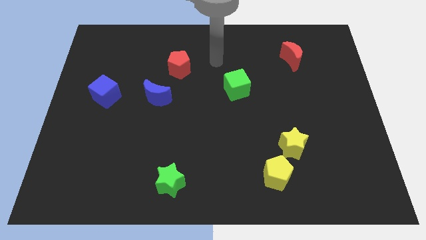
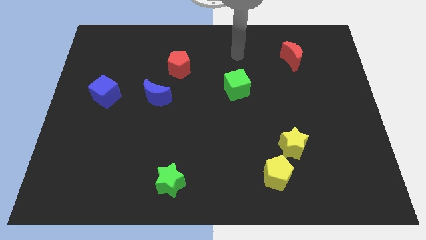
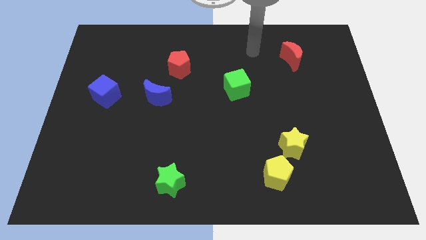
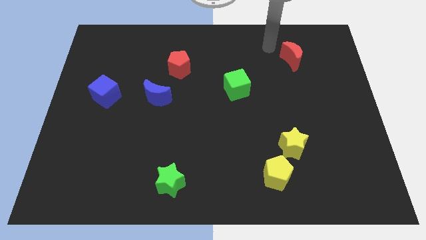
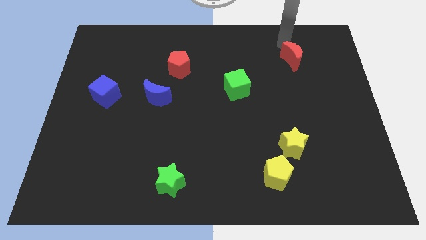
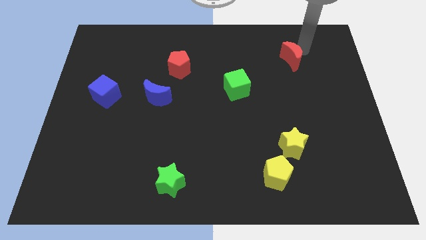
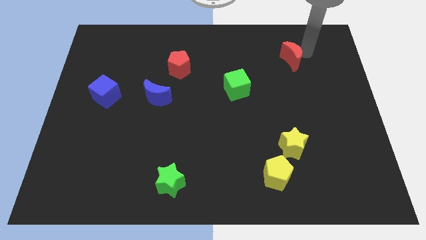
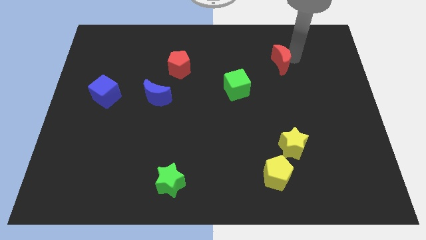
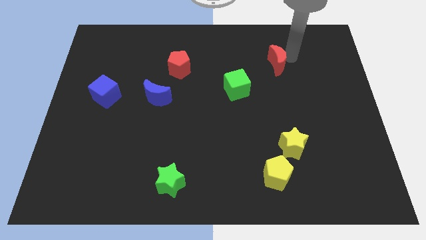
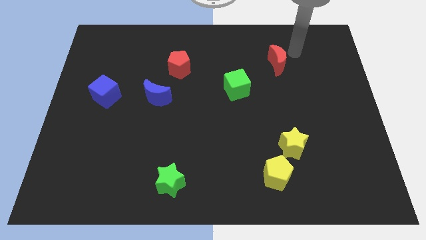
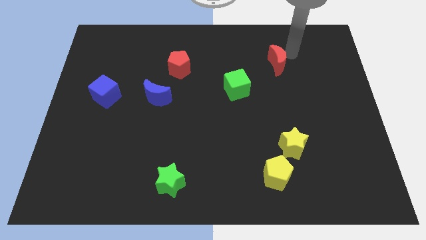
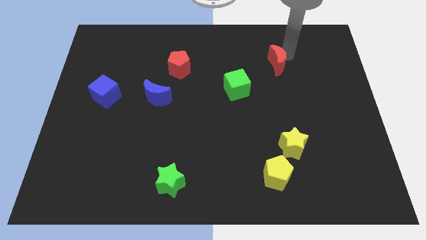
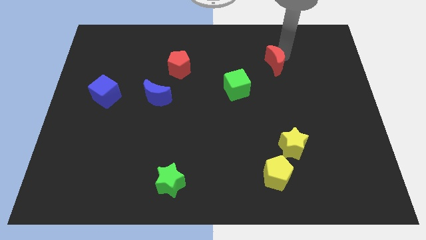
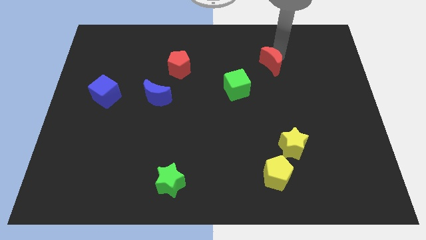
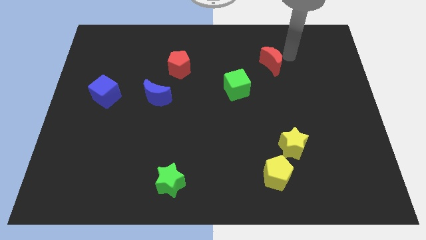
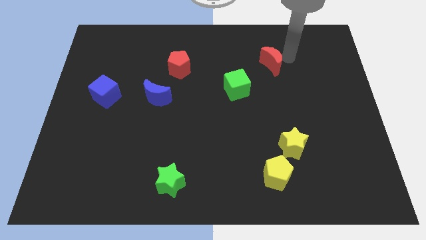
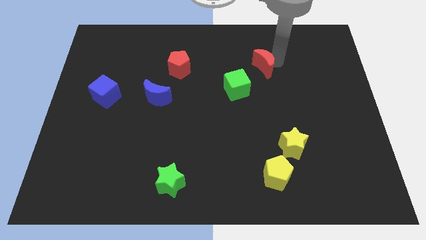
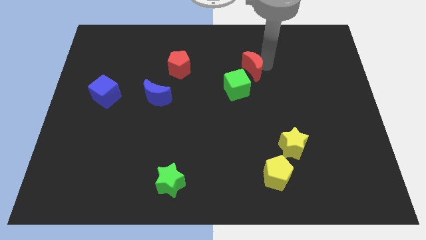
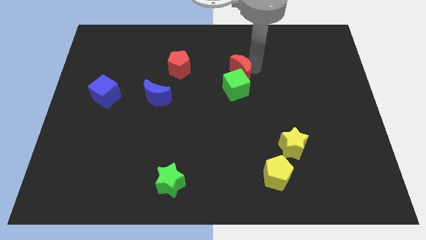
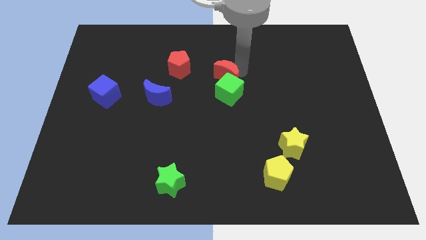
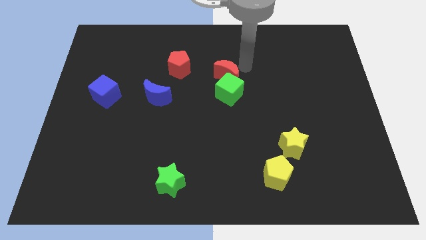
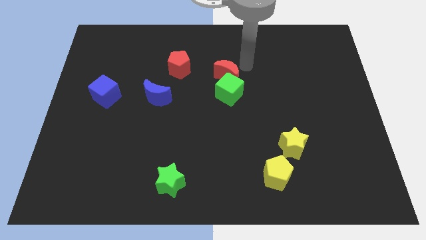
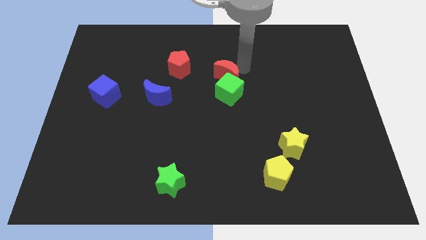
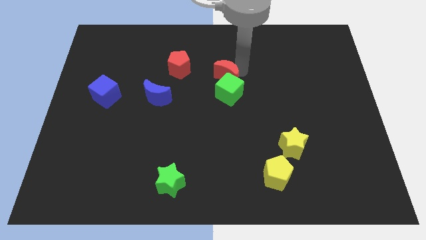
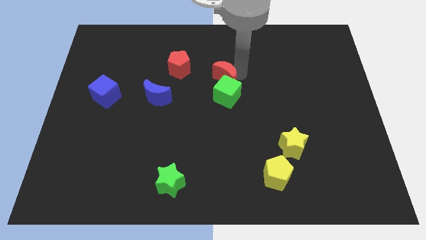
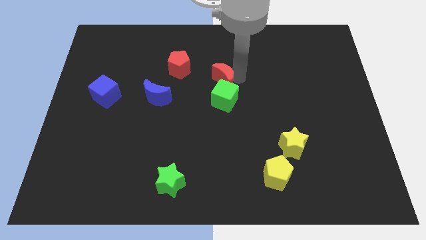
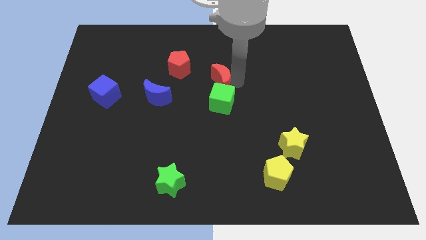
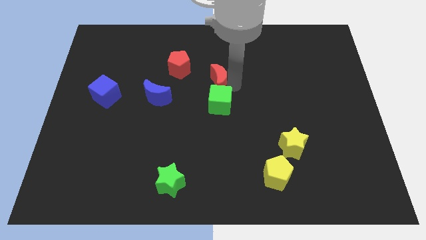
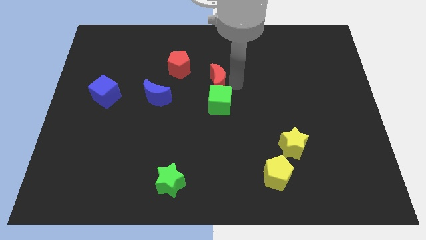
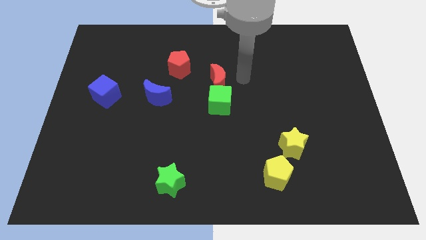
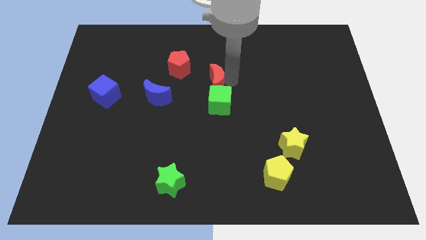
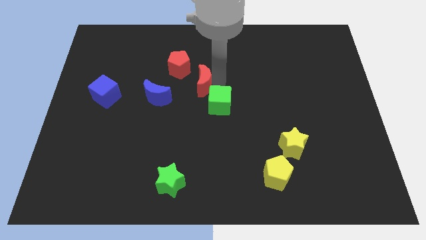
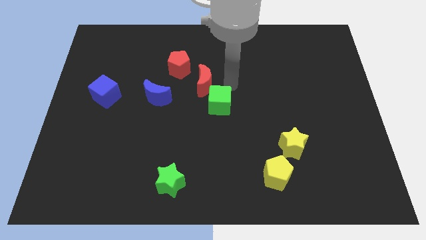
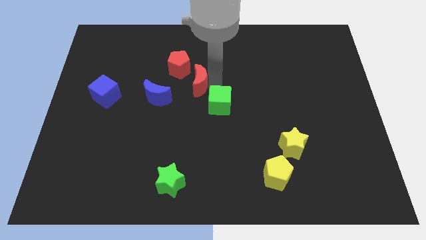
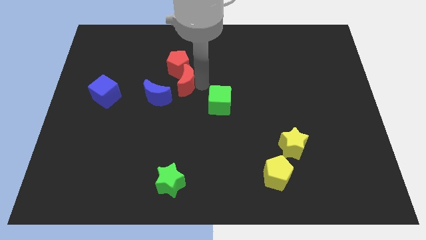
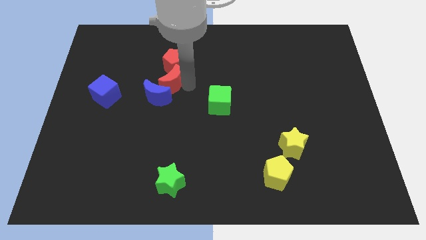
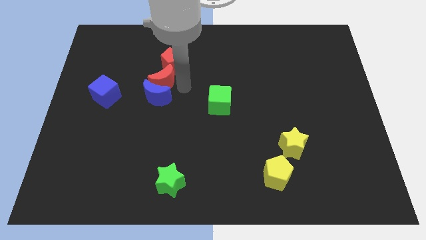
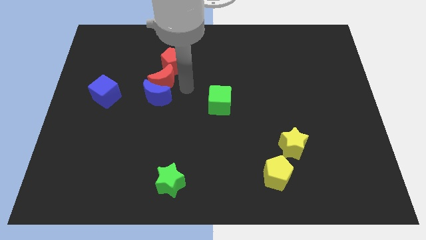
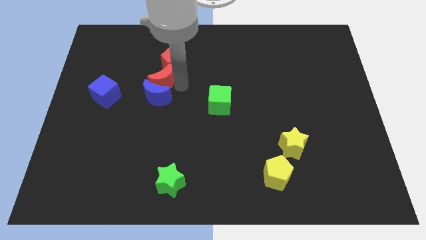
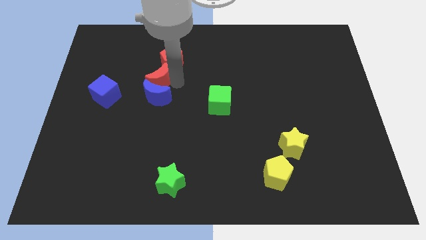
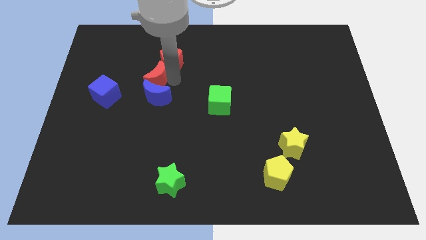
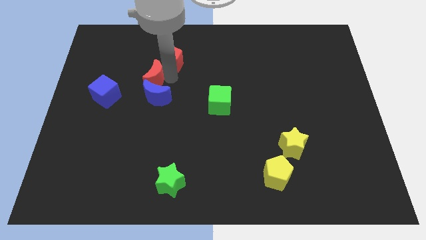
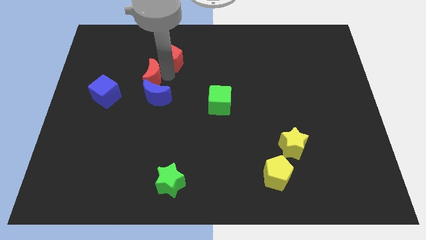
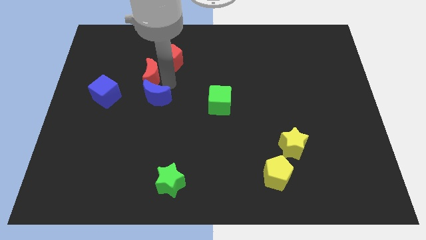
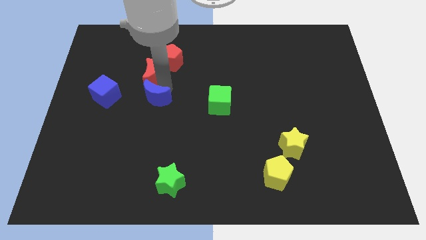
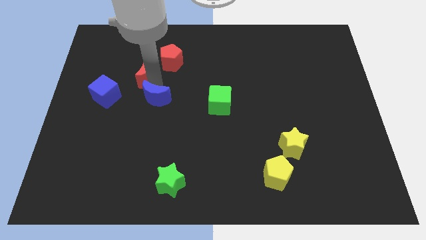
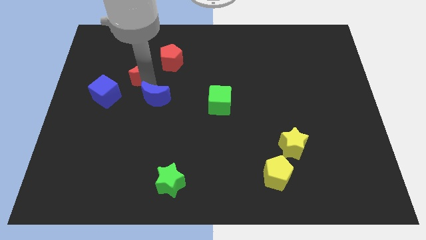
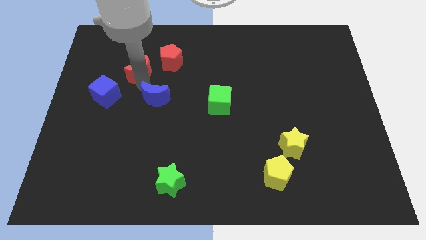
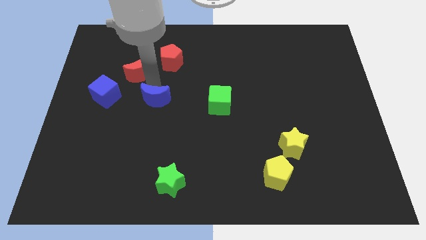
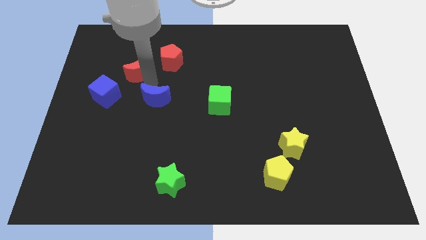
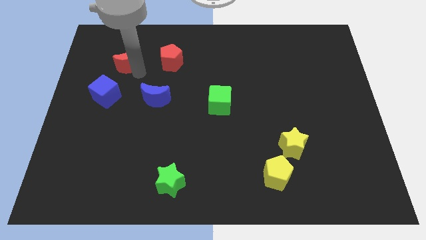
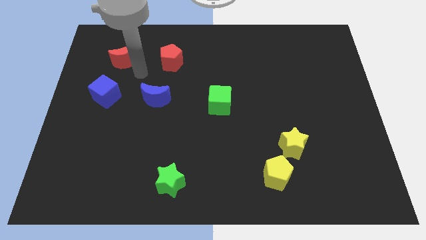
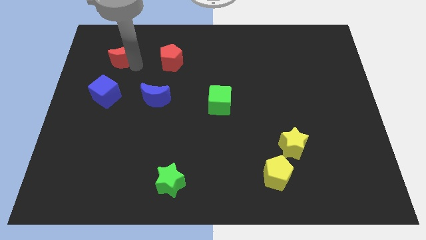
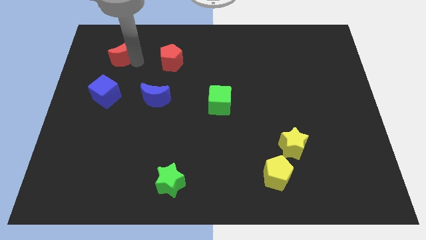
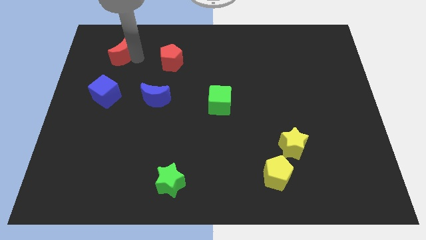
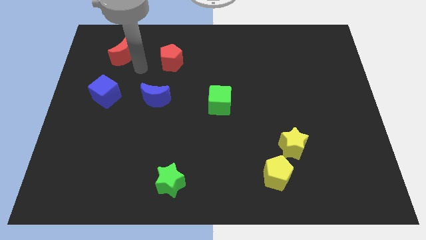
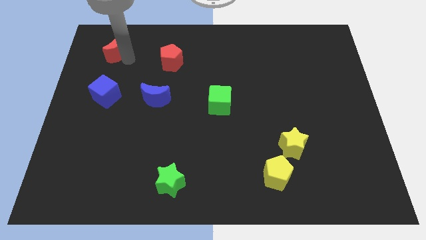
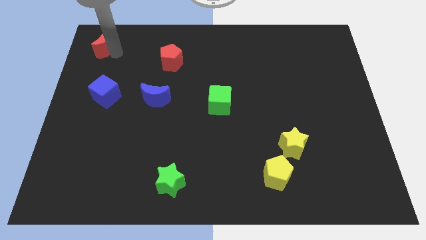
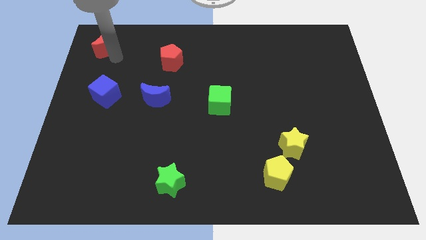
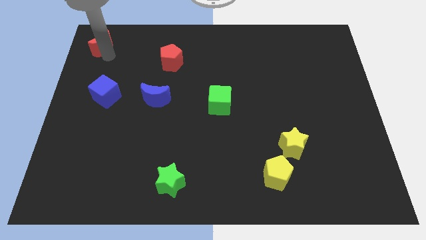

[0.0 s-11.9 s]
slide the red moon to the upper left corner

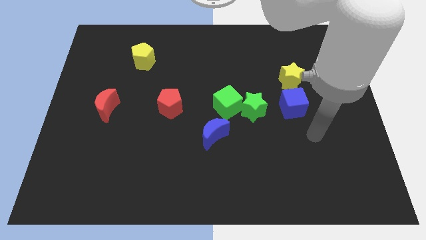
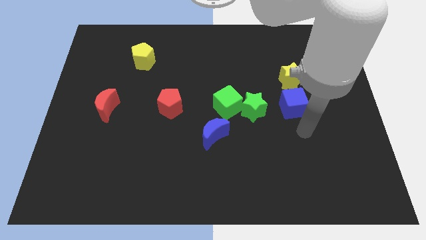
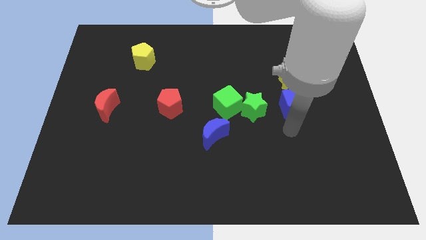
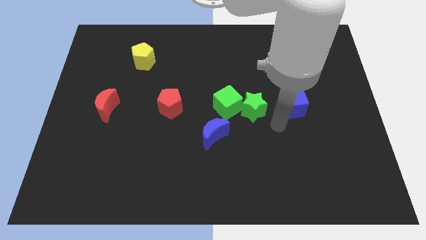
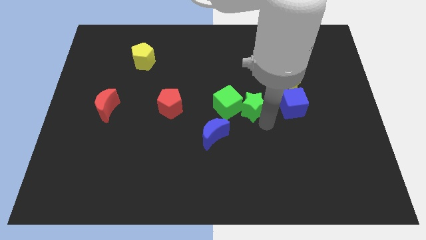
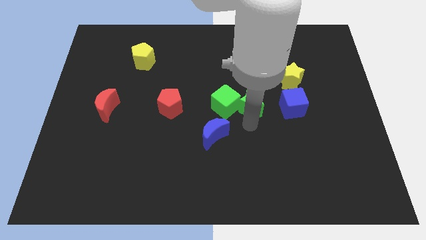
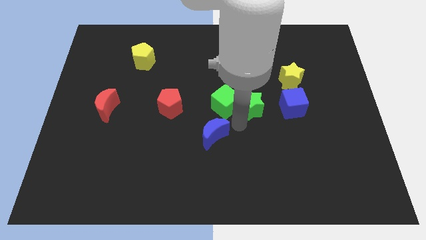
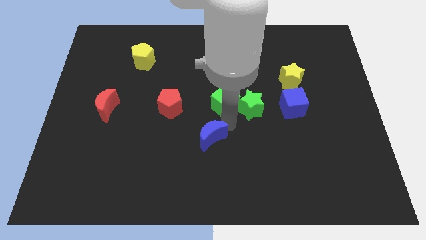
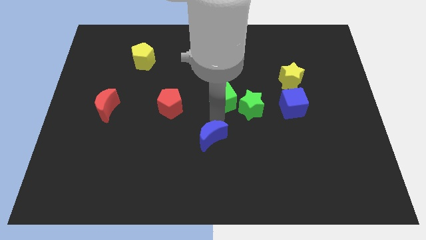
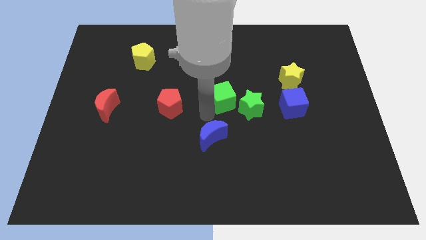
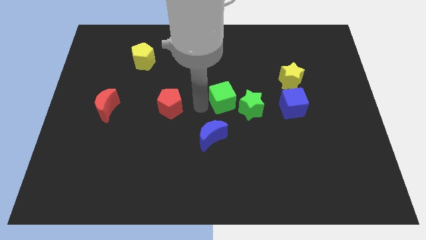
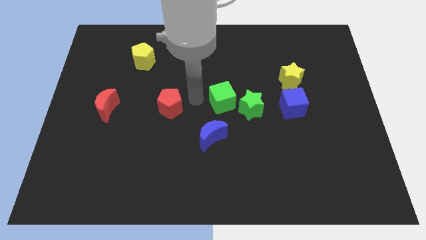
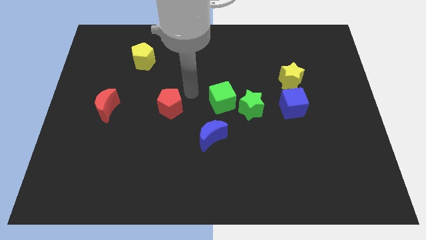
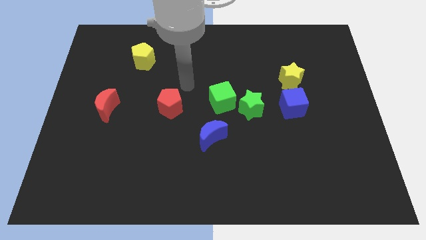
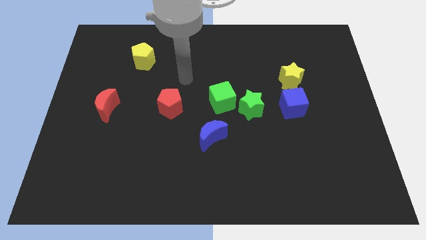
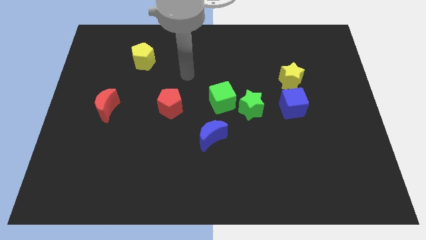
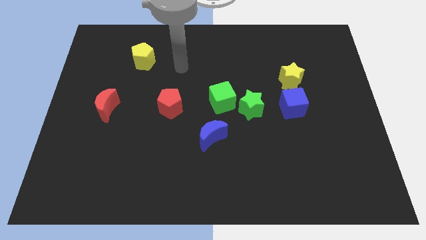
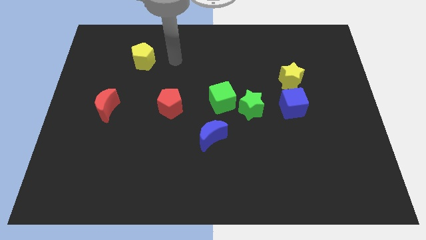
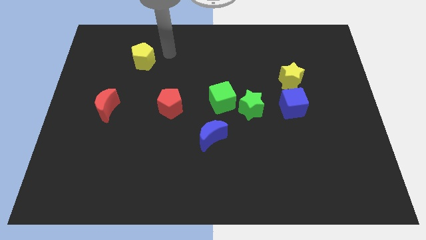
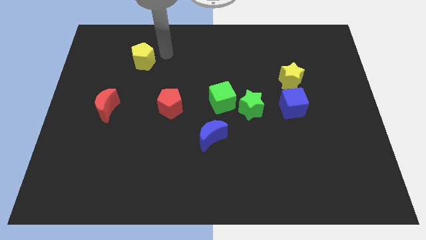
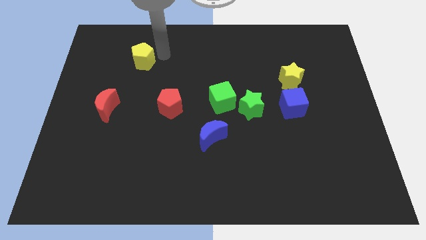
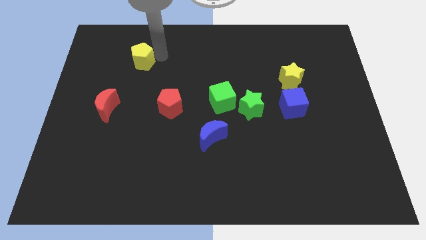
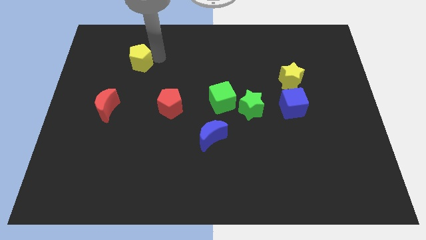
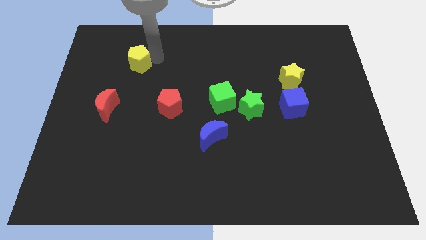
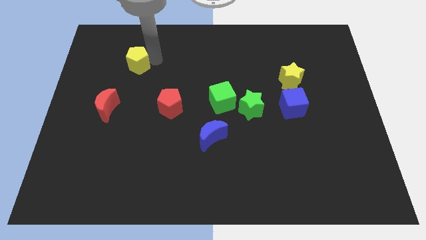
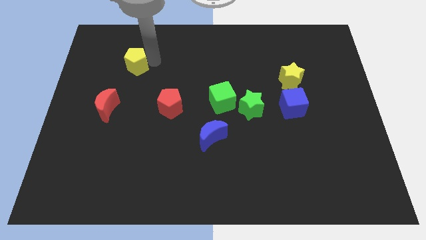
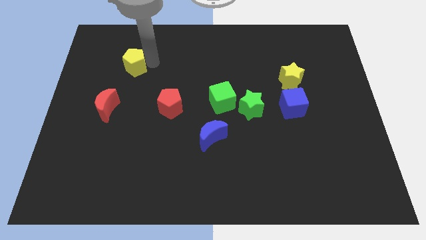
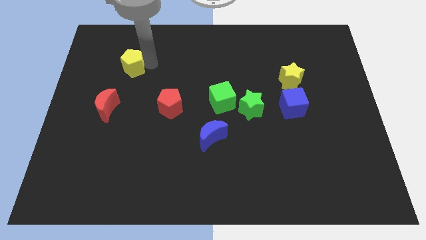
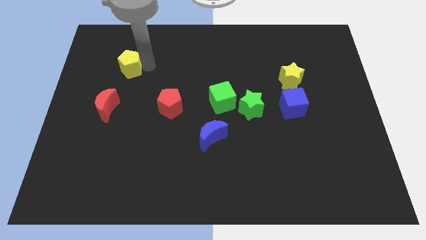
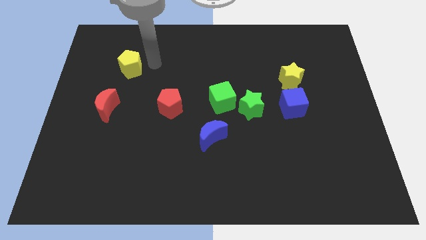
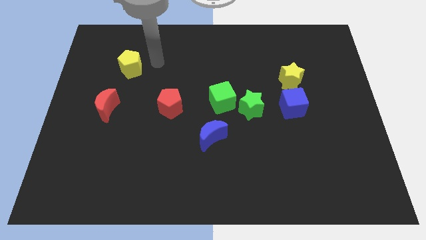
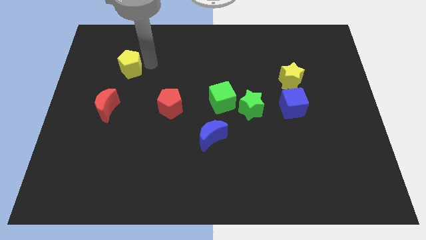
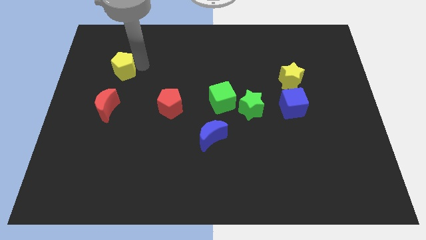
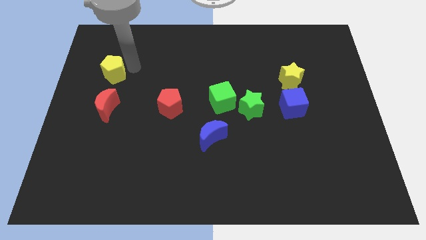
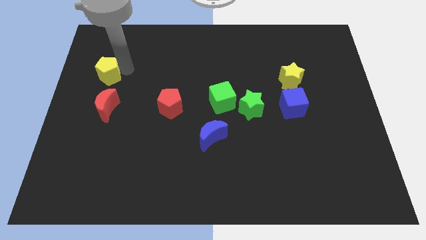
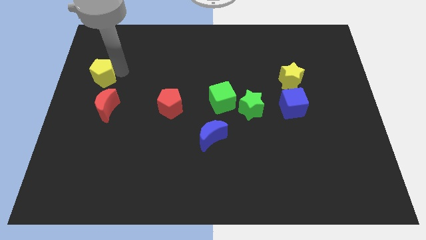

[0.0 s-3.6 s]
move the yellow pentagon to the center left
